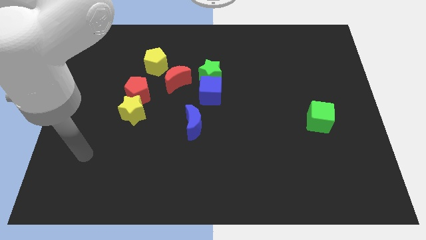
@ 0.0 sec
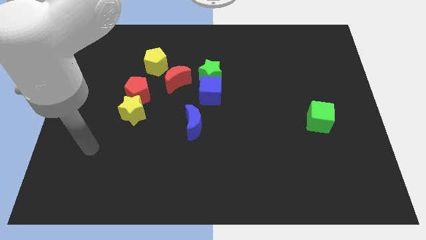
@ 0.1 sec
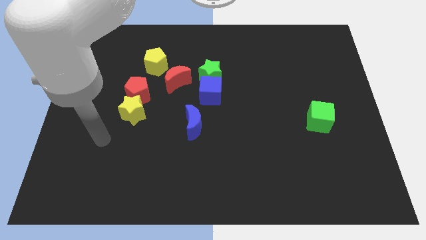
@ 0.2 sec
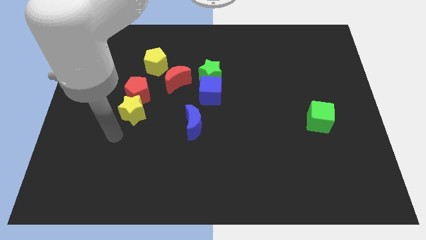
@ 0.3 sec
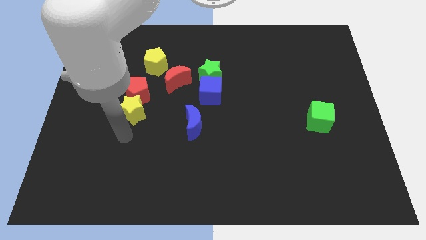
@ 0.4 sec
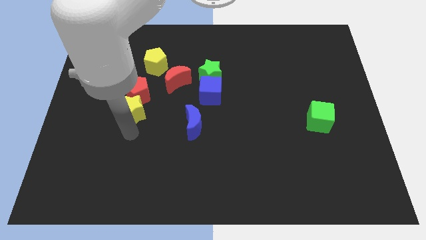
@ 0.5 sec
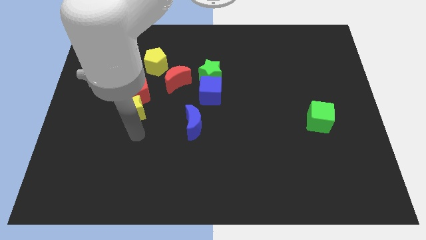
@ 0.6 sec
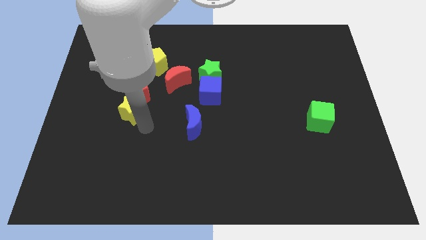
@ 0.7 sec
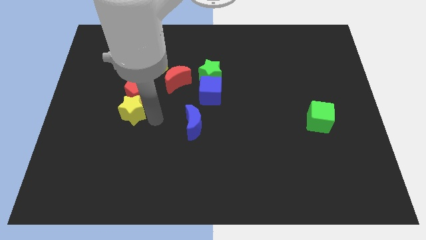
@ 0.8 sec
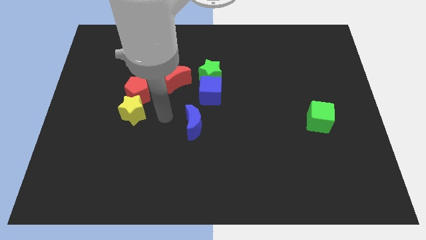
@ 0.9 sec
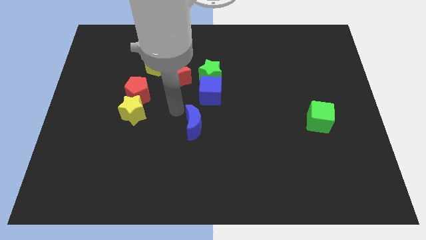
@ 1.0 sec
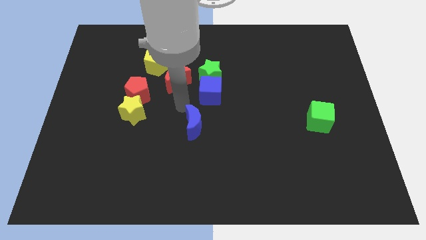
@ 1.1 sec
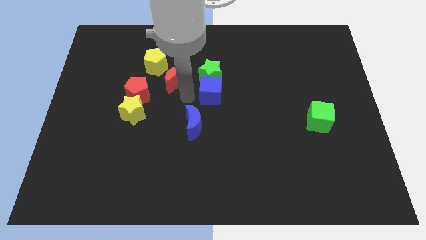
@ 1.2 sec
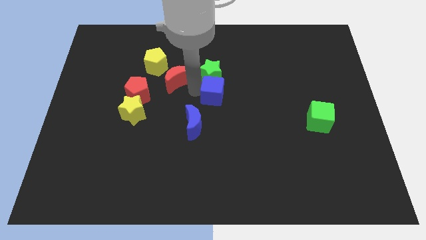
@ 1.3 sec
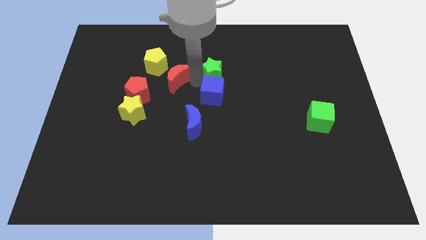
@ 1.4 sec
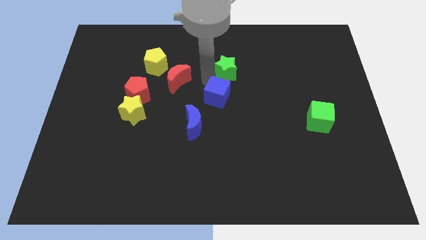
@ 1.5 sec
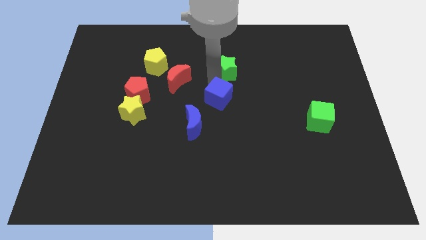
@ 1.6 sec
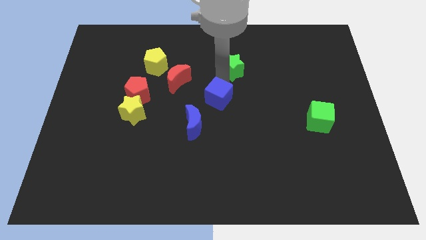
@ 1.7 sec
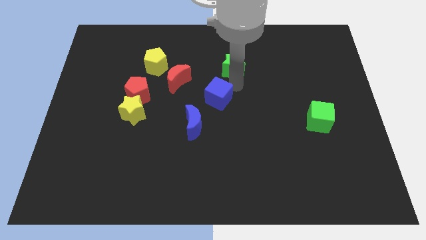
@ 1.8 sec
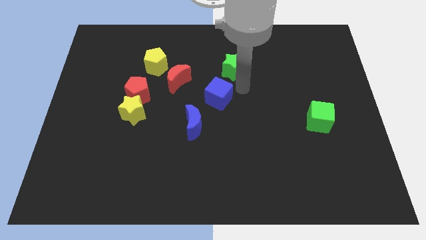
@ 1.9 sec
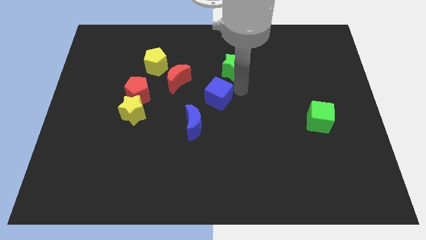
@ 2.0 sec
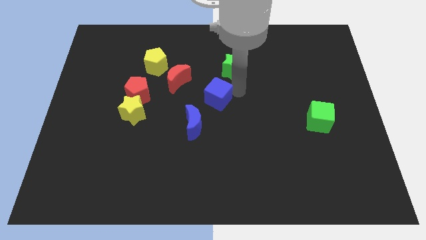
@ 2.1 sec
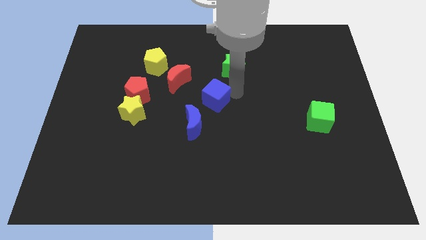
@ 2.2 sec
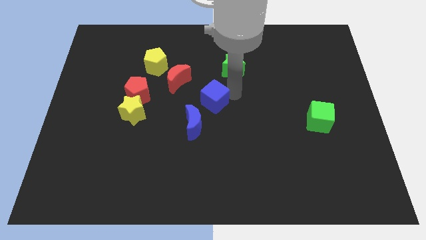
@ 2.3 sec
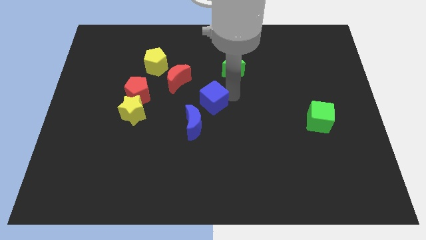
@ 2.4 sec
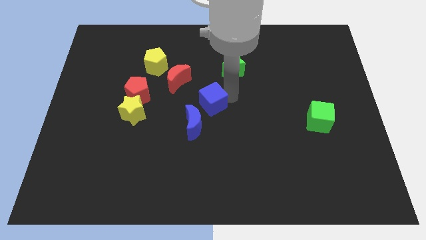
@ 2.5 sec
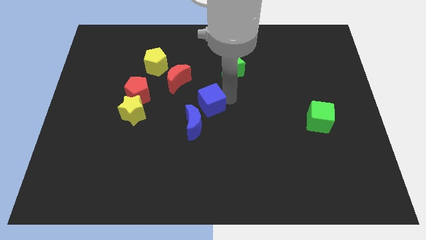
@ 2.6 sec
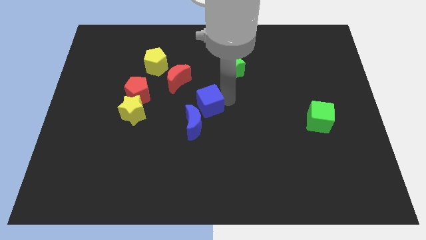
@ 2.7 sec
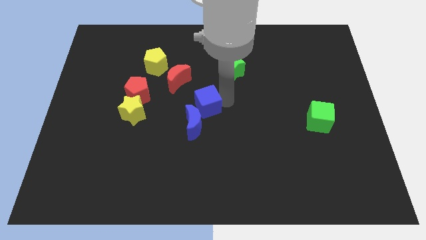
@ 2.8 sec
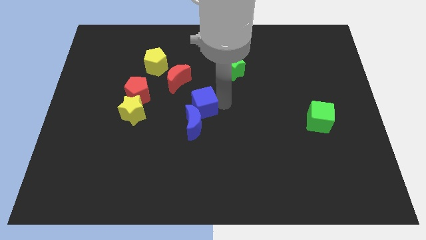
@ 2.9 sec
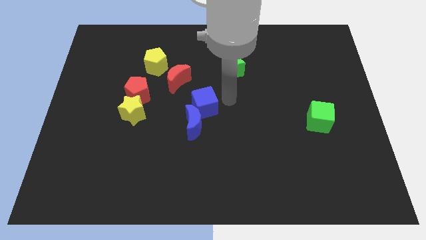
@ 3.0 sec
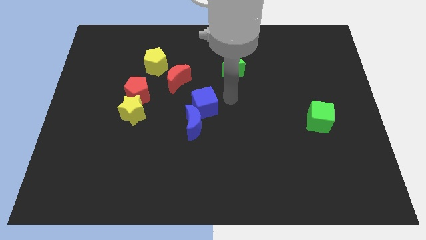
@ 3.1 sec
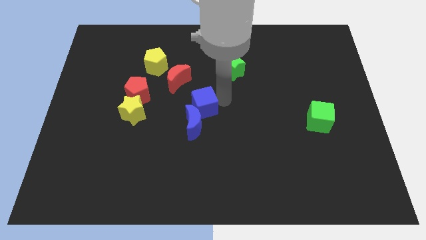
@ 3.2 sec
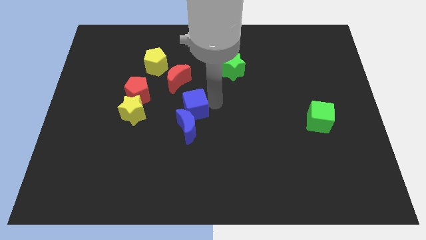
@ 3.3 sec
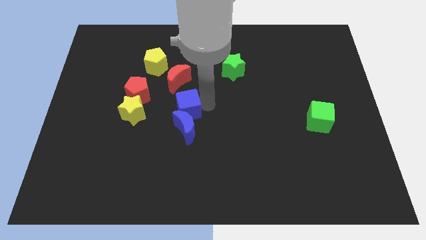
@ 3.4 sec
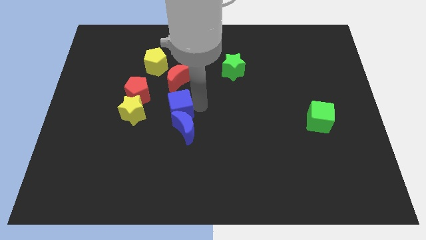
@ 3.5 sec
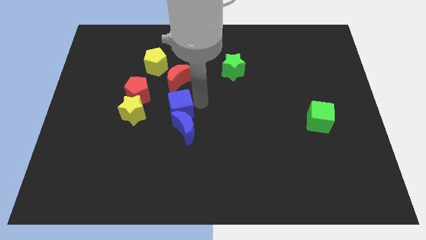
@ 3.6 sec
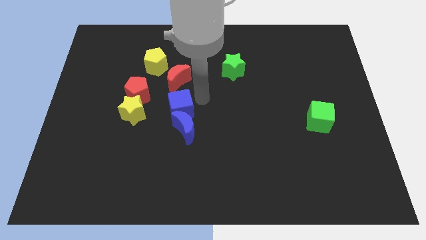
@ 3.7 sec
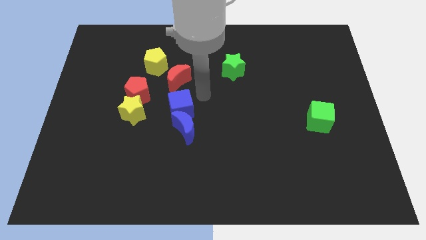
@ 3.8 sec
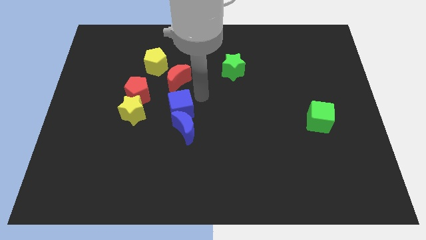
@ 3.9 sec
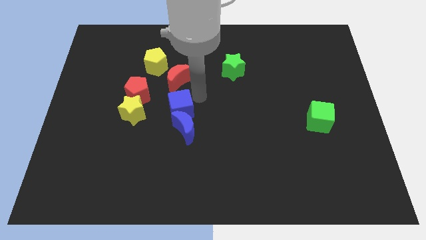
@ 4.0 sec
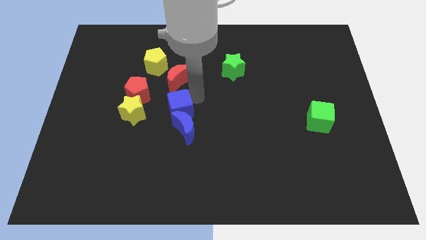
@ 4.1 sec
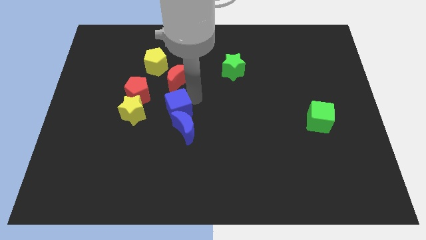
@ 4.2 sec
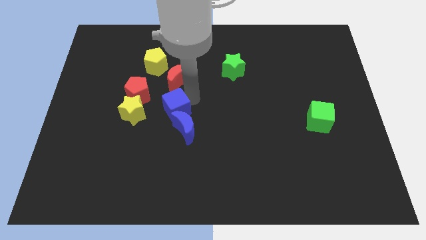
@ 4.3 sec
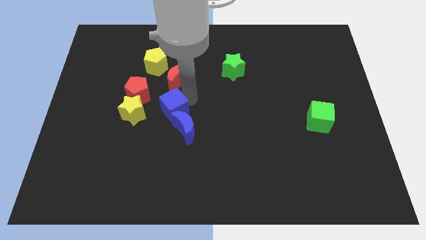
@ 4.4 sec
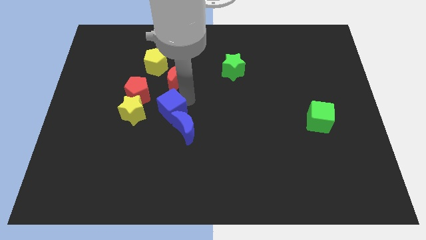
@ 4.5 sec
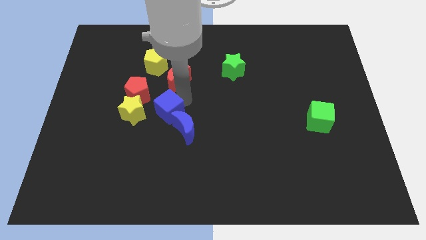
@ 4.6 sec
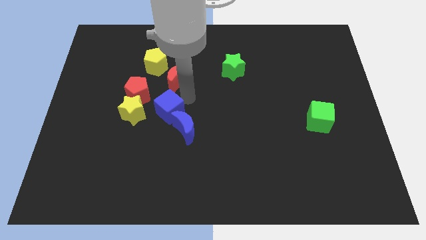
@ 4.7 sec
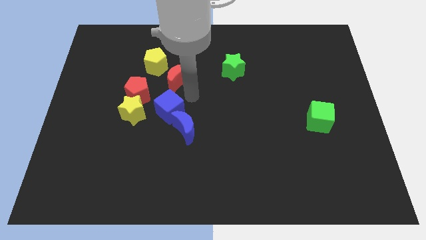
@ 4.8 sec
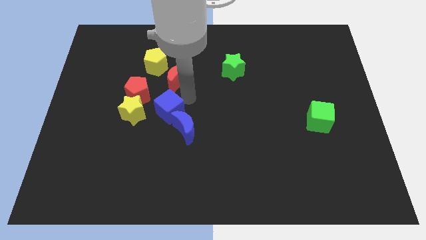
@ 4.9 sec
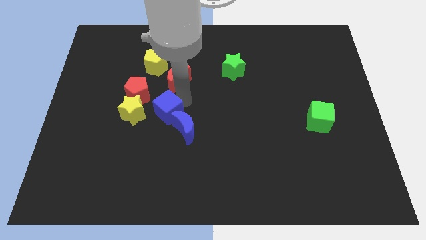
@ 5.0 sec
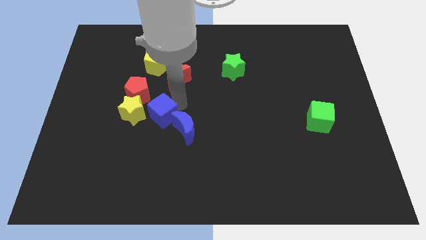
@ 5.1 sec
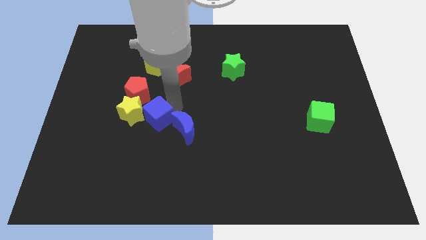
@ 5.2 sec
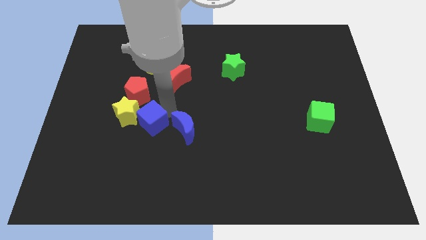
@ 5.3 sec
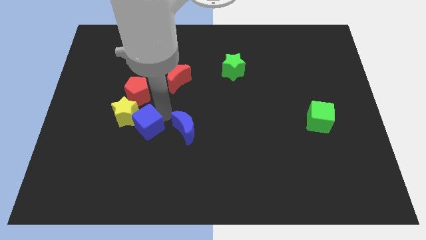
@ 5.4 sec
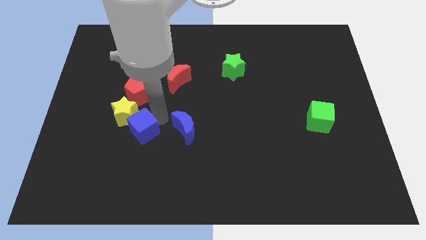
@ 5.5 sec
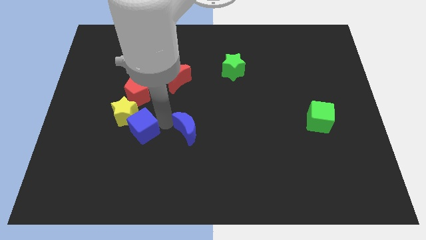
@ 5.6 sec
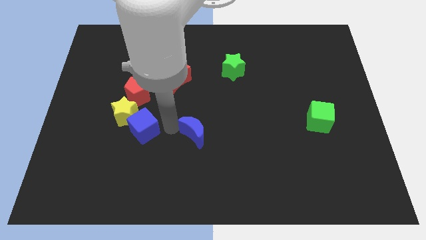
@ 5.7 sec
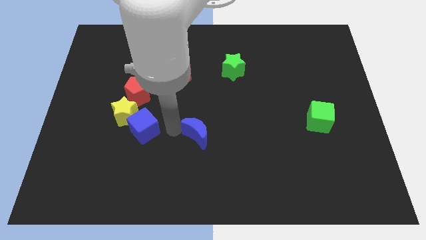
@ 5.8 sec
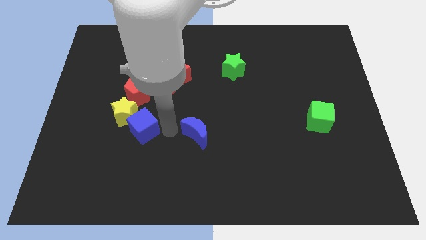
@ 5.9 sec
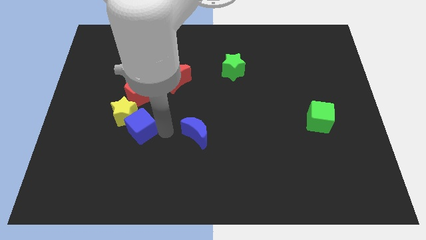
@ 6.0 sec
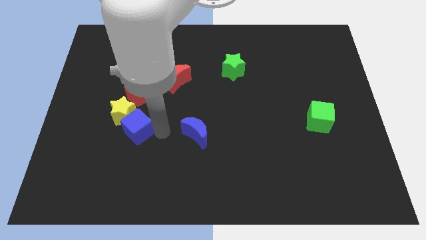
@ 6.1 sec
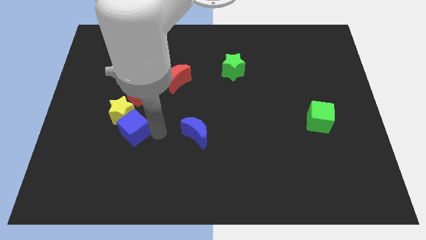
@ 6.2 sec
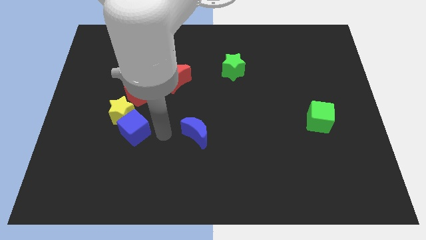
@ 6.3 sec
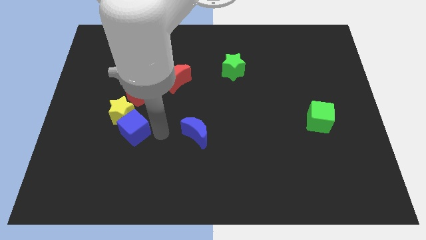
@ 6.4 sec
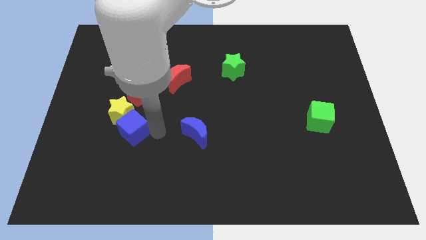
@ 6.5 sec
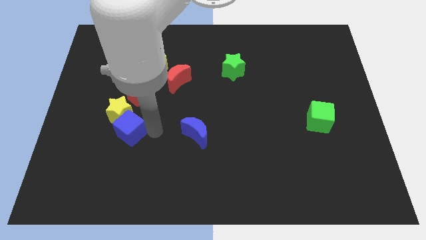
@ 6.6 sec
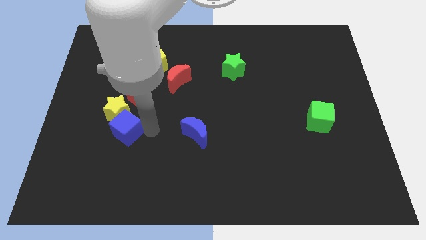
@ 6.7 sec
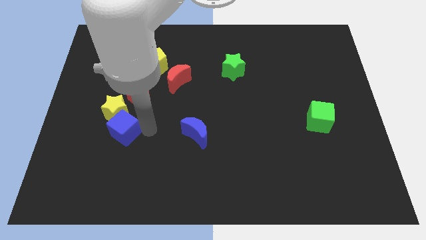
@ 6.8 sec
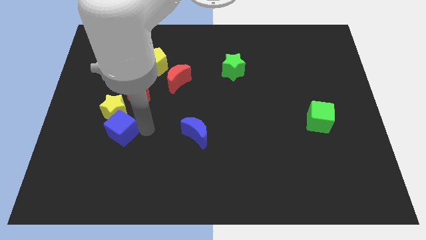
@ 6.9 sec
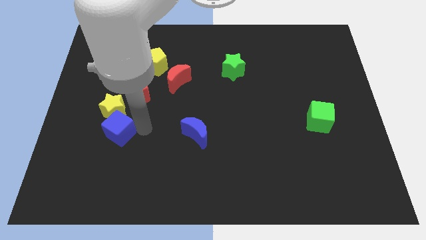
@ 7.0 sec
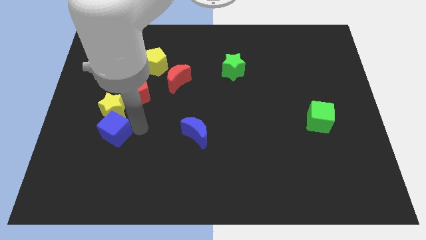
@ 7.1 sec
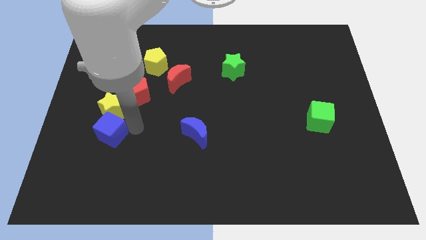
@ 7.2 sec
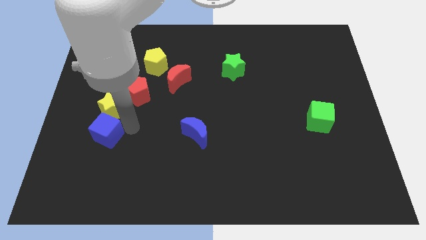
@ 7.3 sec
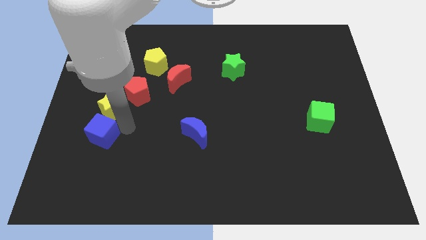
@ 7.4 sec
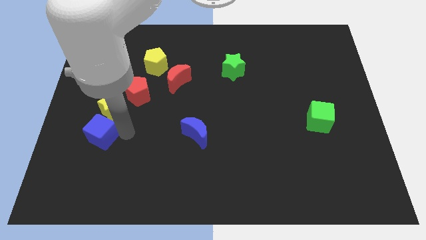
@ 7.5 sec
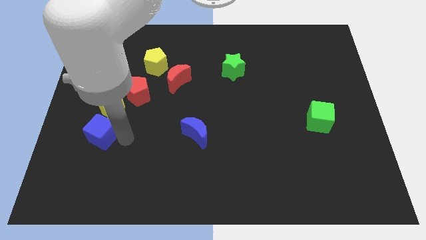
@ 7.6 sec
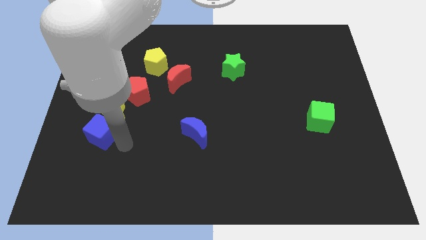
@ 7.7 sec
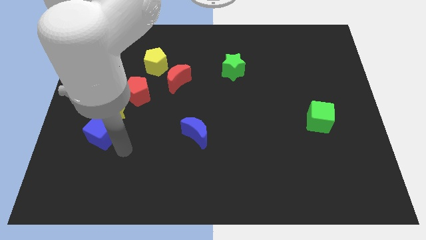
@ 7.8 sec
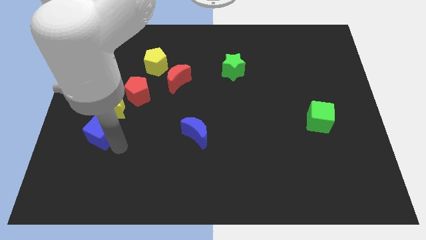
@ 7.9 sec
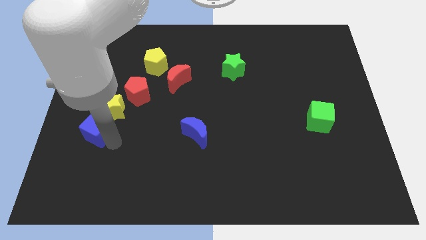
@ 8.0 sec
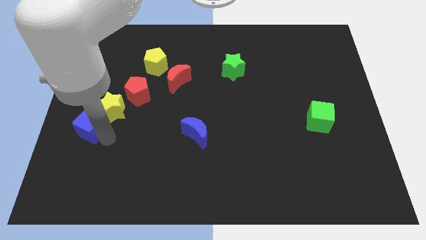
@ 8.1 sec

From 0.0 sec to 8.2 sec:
slide the blue cube to the left side
